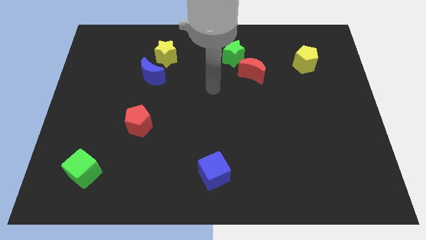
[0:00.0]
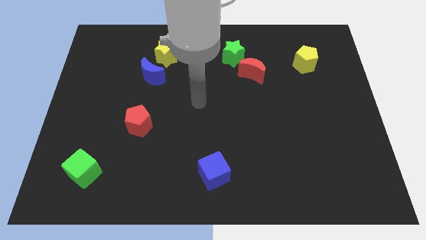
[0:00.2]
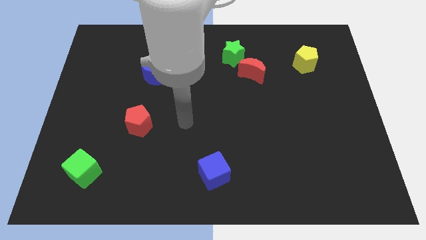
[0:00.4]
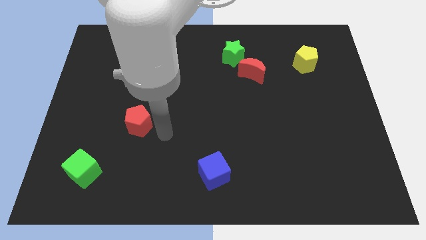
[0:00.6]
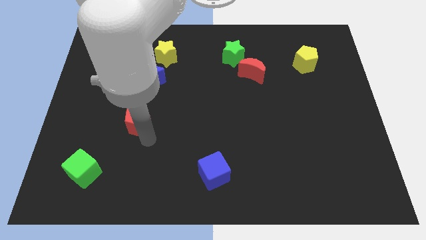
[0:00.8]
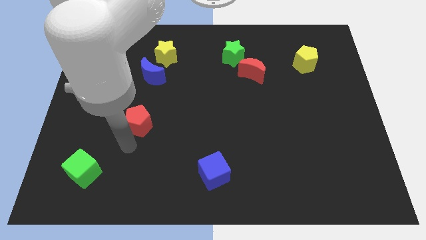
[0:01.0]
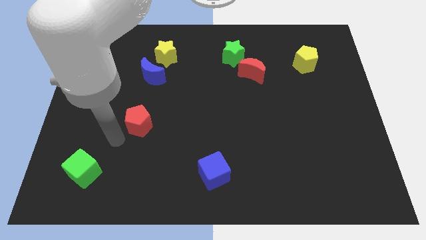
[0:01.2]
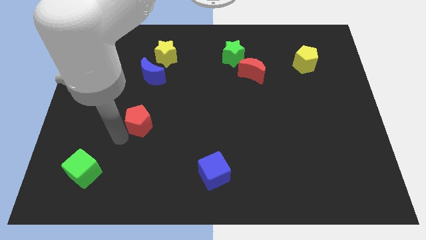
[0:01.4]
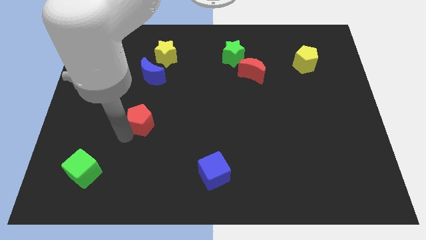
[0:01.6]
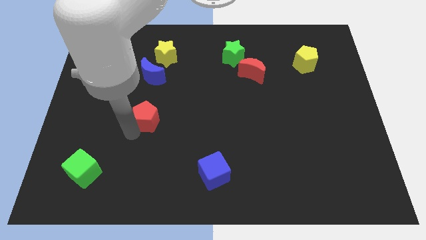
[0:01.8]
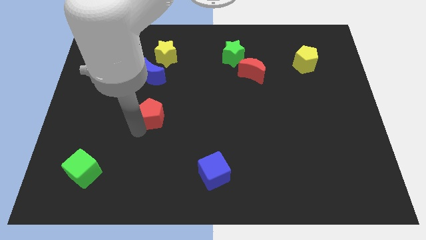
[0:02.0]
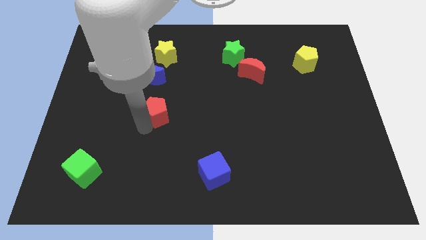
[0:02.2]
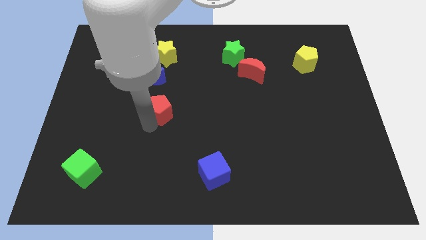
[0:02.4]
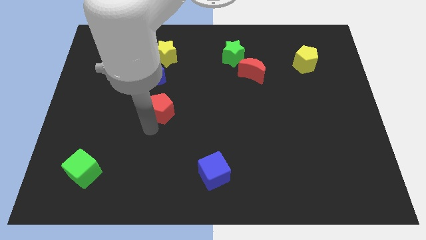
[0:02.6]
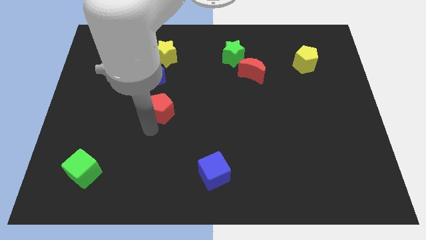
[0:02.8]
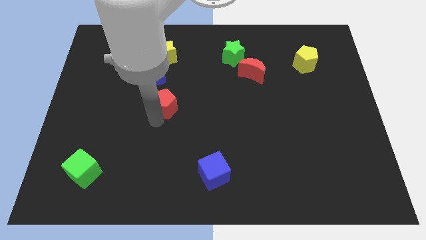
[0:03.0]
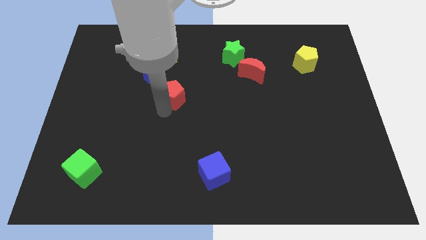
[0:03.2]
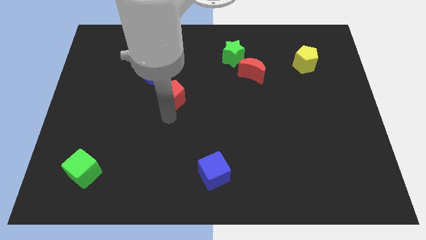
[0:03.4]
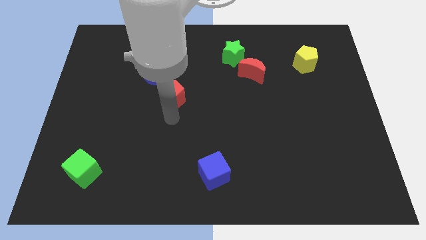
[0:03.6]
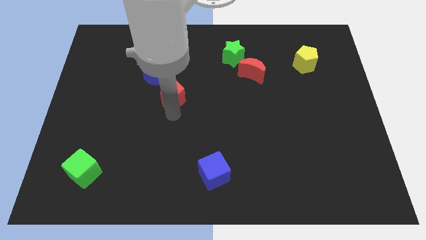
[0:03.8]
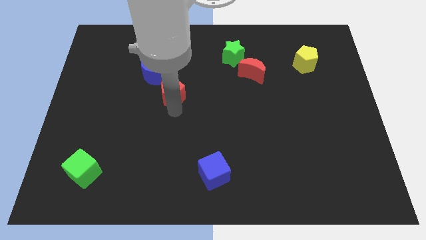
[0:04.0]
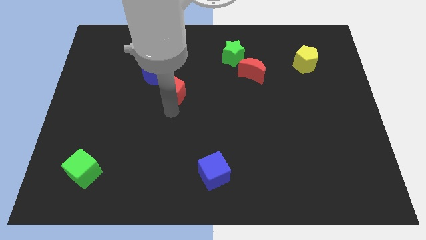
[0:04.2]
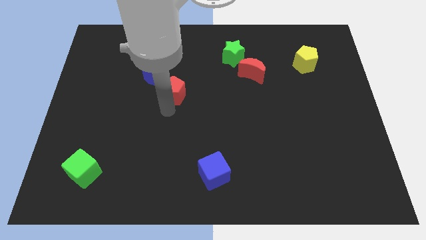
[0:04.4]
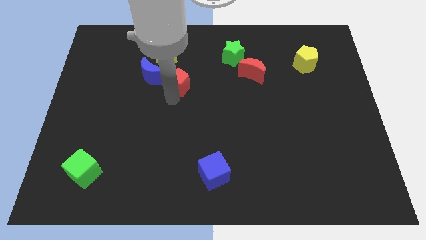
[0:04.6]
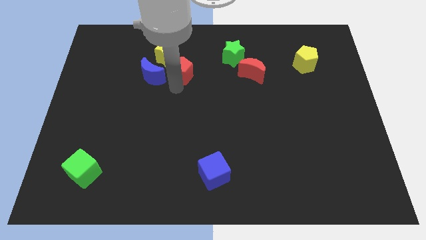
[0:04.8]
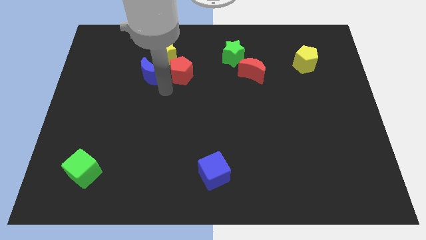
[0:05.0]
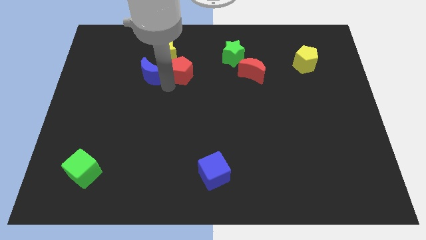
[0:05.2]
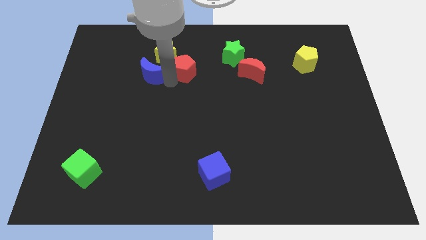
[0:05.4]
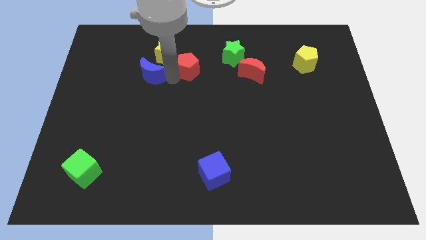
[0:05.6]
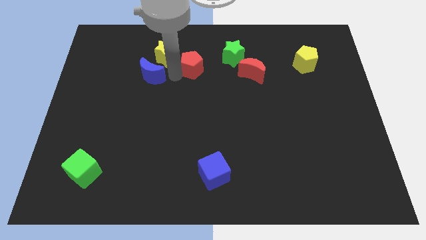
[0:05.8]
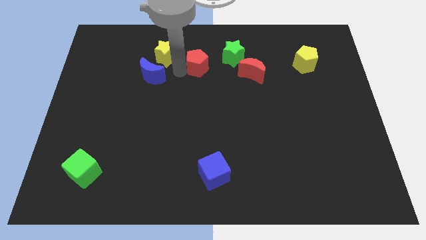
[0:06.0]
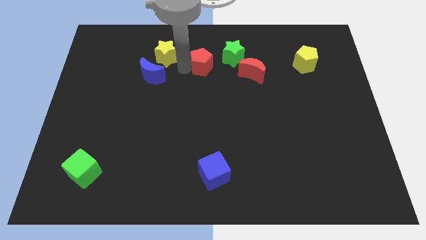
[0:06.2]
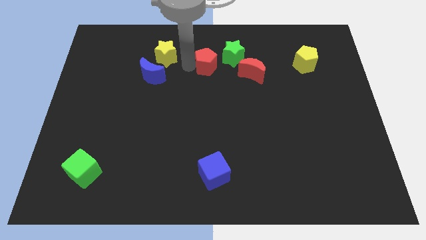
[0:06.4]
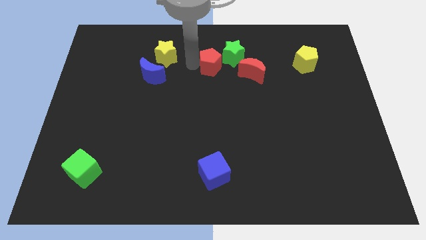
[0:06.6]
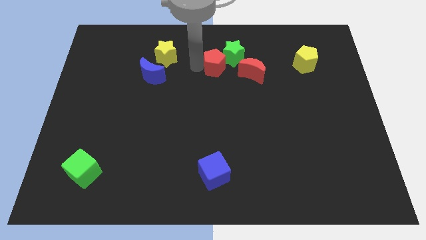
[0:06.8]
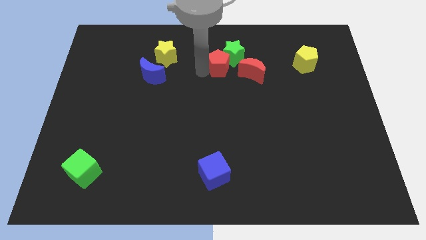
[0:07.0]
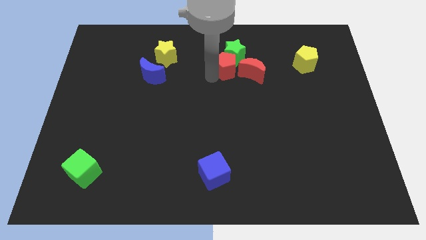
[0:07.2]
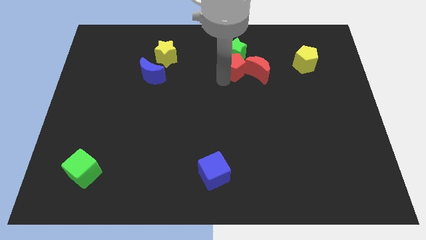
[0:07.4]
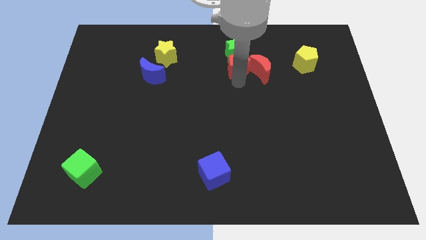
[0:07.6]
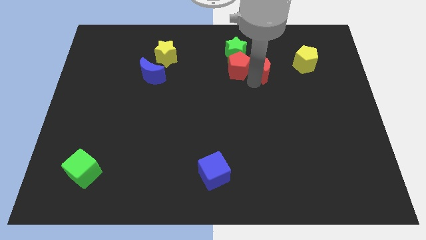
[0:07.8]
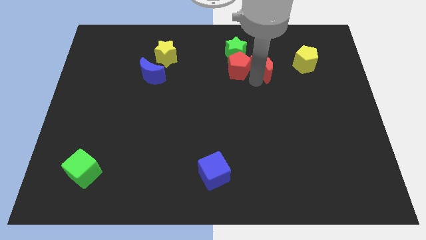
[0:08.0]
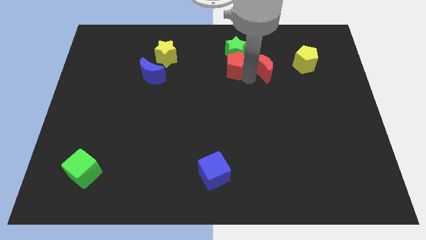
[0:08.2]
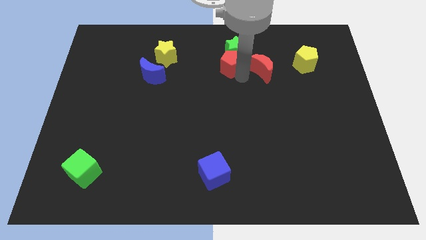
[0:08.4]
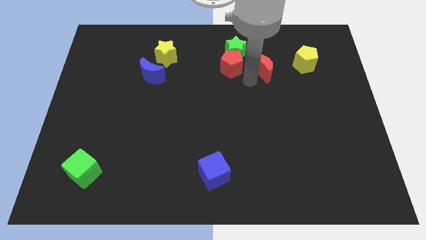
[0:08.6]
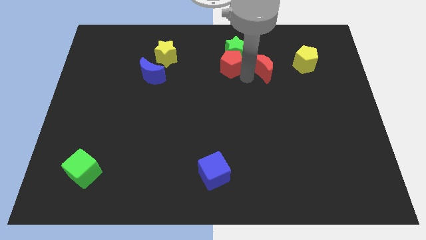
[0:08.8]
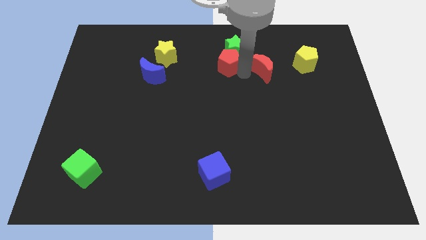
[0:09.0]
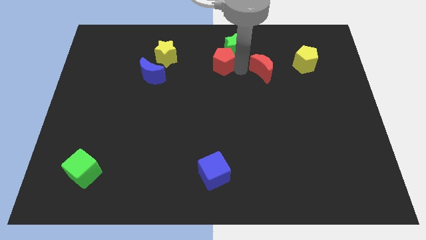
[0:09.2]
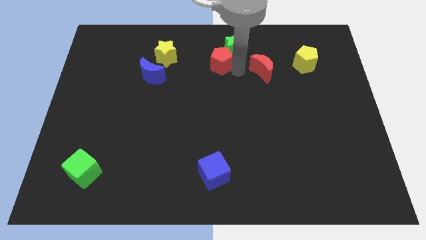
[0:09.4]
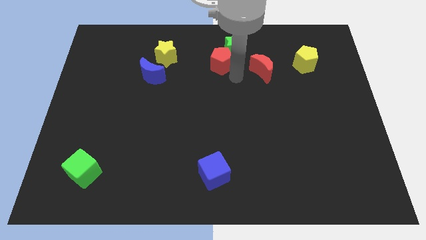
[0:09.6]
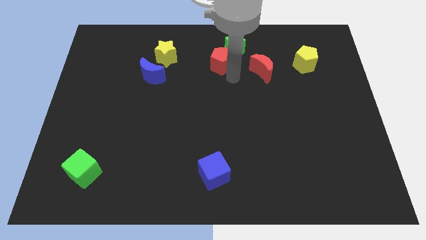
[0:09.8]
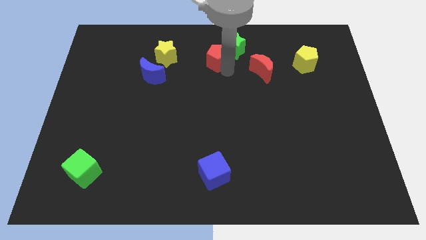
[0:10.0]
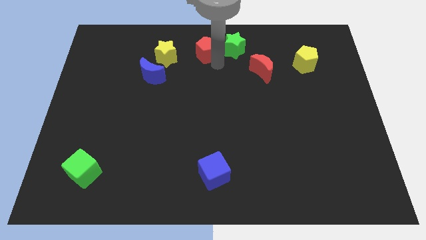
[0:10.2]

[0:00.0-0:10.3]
slide the red pentagon to the top
